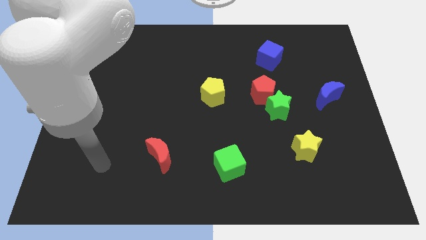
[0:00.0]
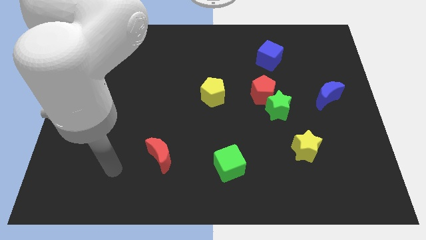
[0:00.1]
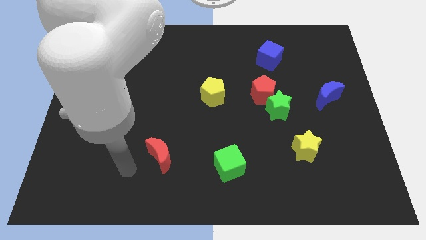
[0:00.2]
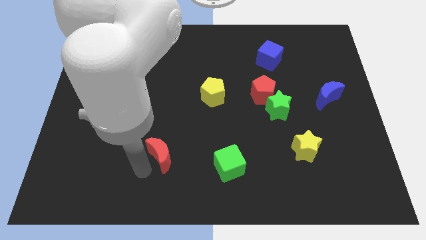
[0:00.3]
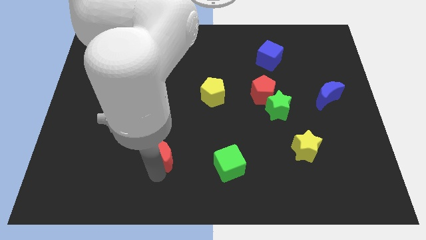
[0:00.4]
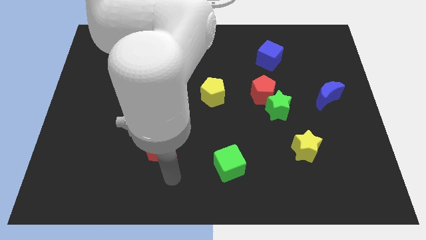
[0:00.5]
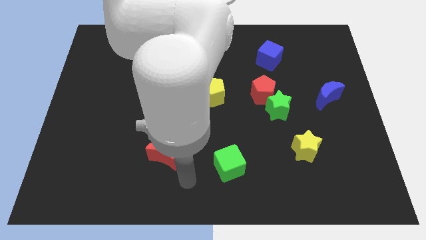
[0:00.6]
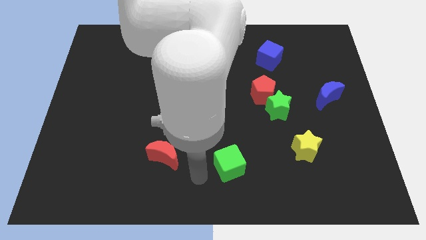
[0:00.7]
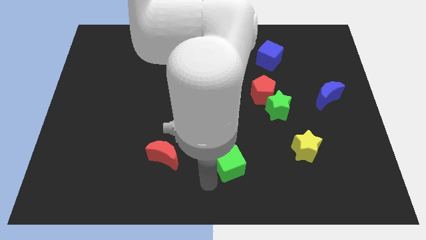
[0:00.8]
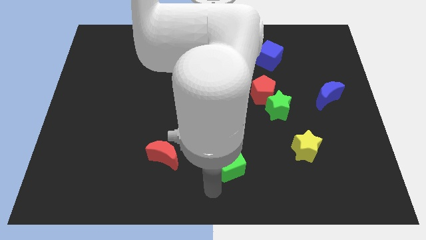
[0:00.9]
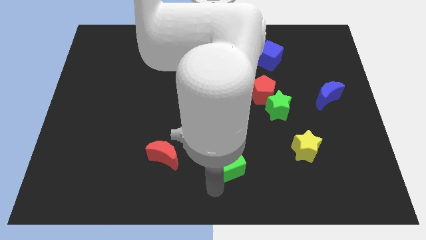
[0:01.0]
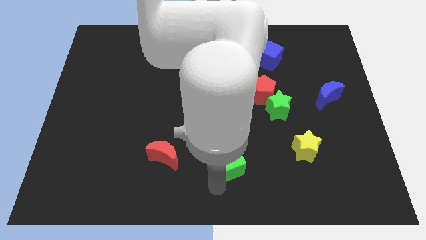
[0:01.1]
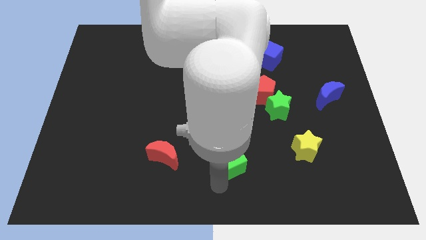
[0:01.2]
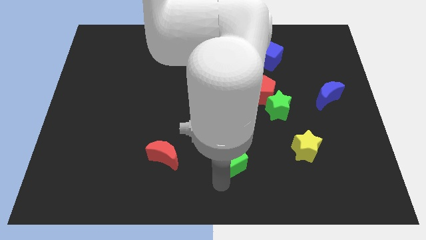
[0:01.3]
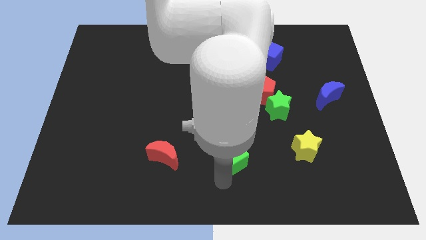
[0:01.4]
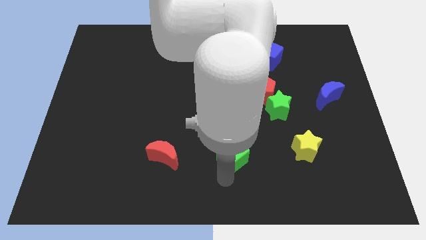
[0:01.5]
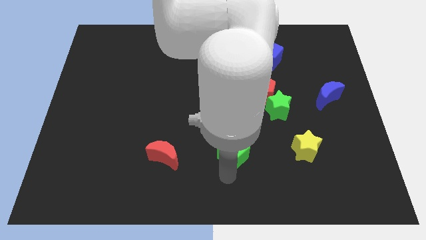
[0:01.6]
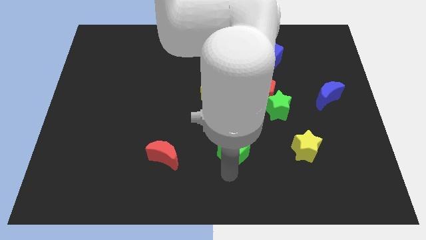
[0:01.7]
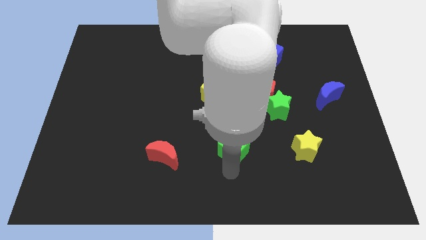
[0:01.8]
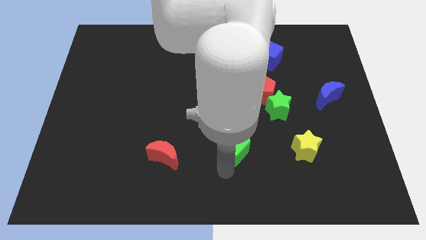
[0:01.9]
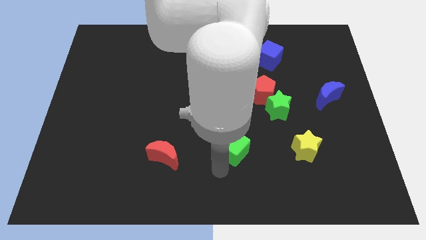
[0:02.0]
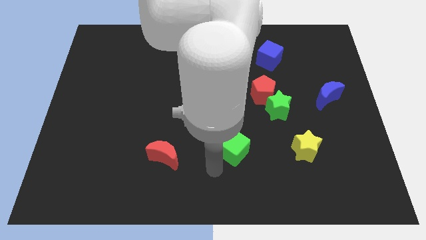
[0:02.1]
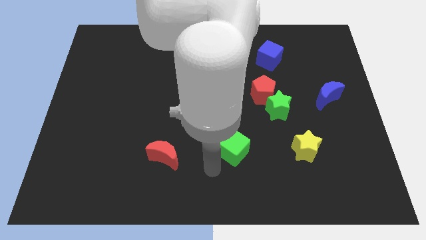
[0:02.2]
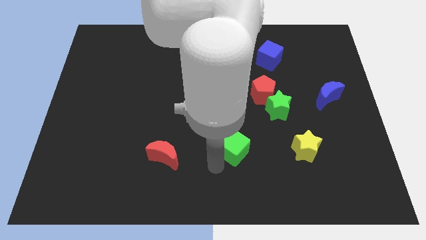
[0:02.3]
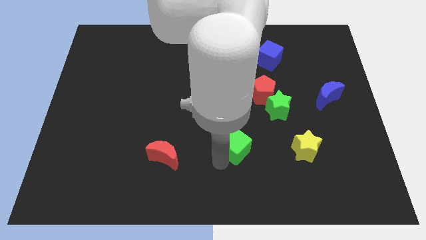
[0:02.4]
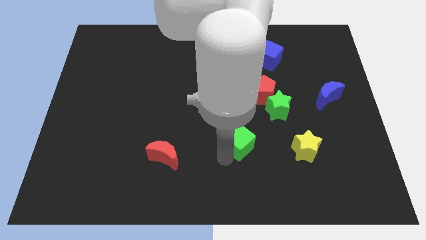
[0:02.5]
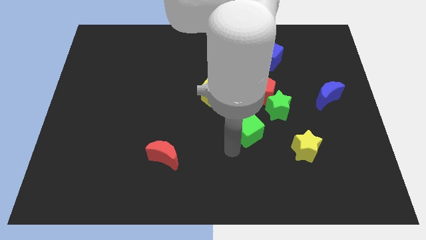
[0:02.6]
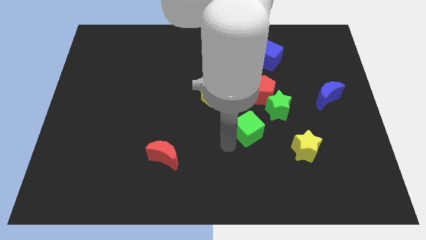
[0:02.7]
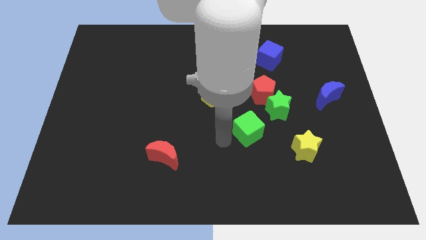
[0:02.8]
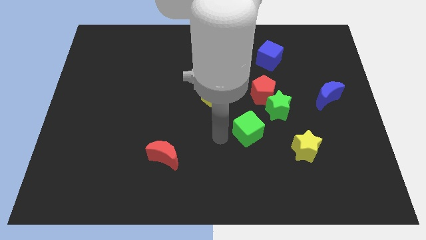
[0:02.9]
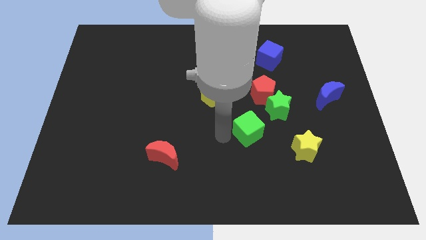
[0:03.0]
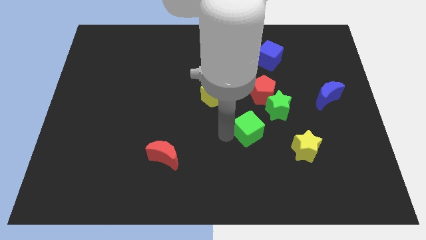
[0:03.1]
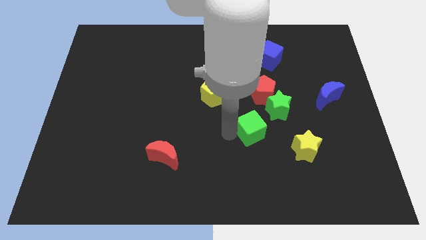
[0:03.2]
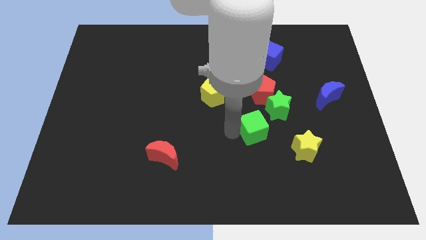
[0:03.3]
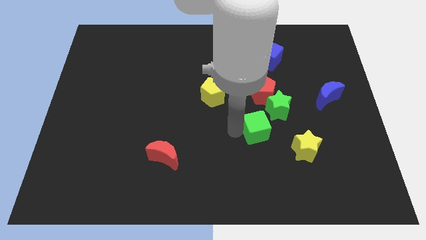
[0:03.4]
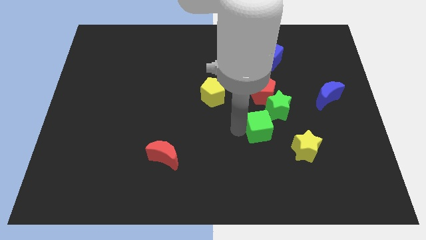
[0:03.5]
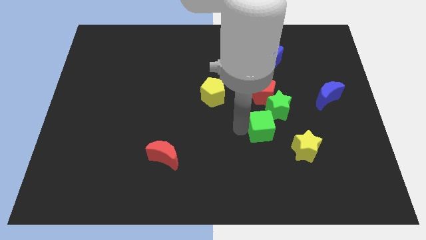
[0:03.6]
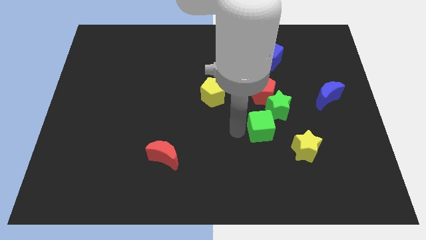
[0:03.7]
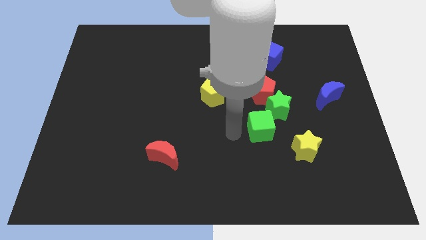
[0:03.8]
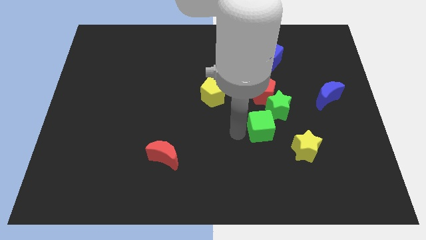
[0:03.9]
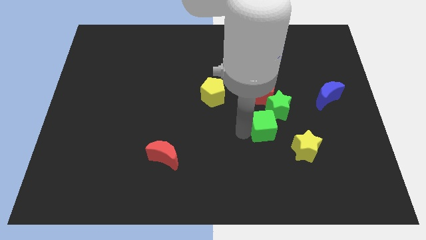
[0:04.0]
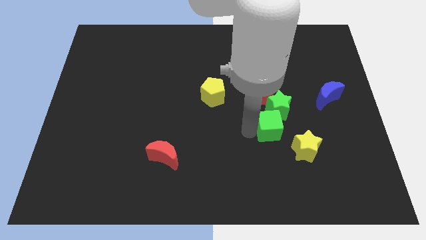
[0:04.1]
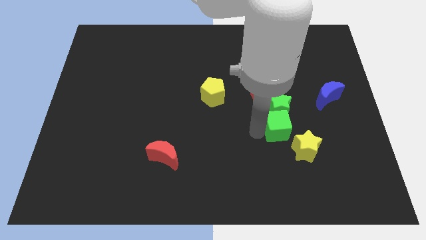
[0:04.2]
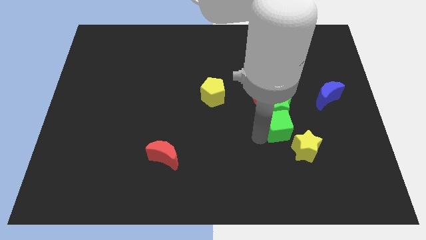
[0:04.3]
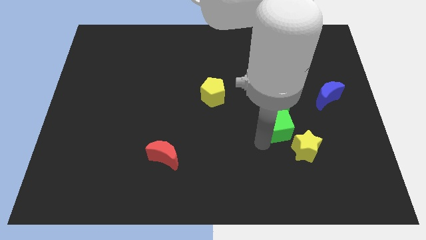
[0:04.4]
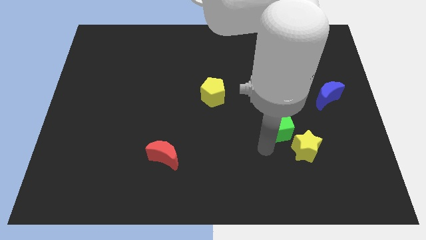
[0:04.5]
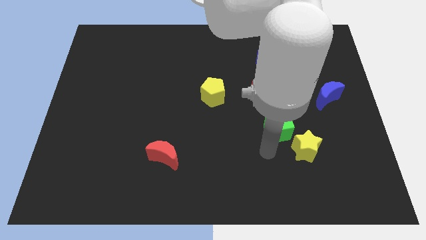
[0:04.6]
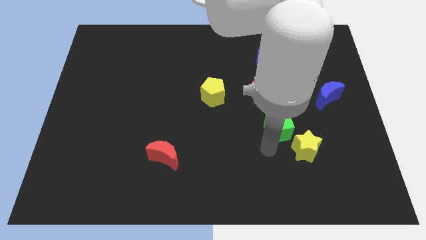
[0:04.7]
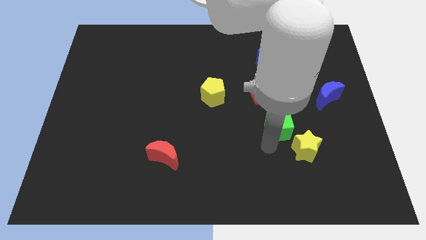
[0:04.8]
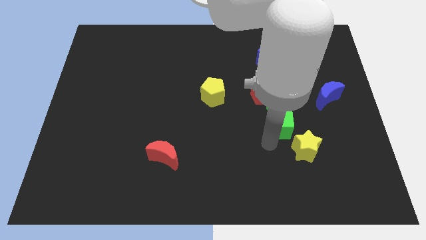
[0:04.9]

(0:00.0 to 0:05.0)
move the green cube diagonally down and to the right of the red pentagon

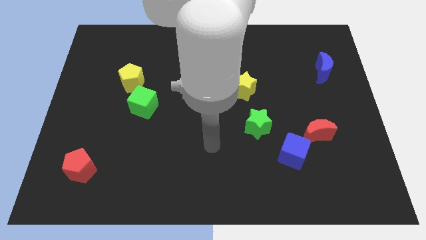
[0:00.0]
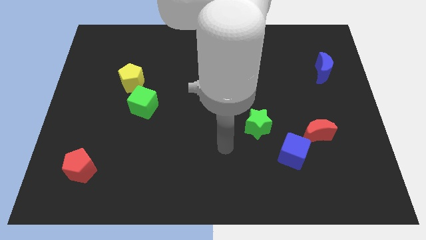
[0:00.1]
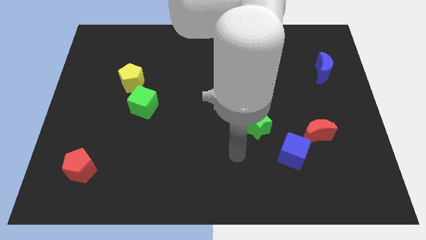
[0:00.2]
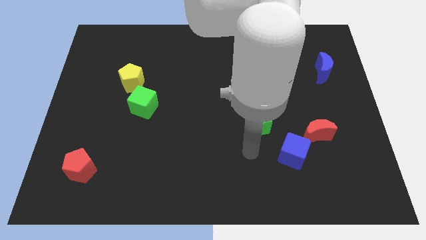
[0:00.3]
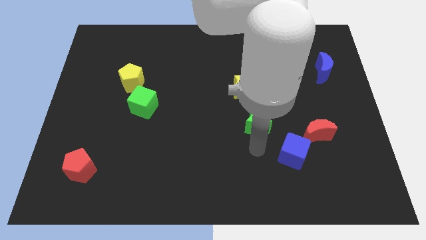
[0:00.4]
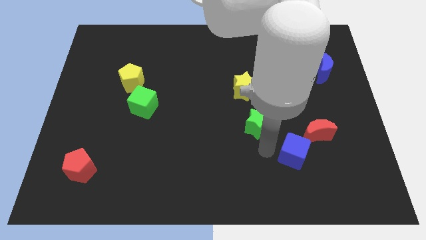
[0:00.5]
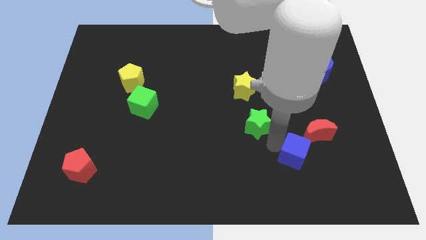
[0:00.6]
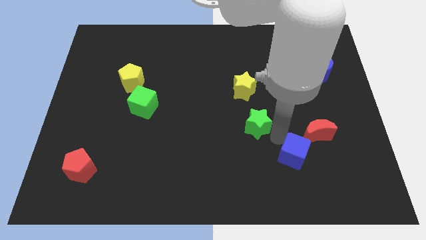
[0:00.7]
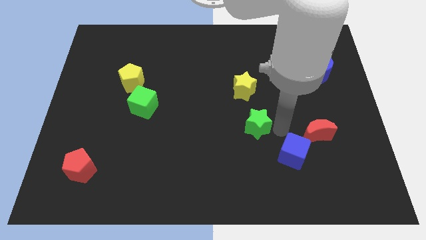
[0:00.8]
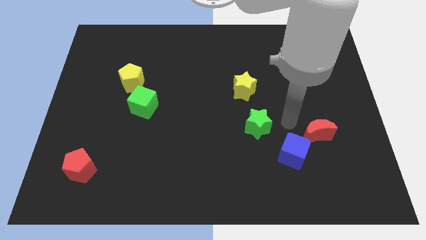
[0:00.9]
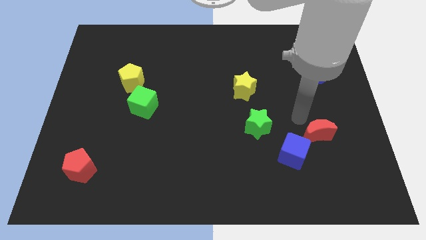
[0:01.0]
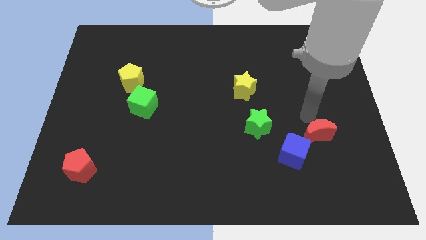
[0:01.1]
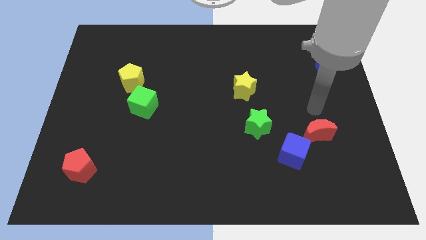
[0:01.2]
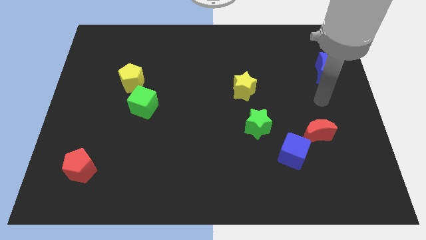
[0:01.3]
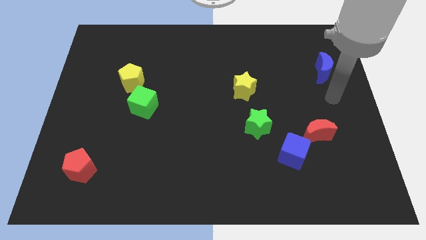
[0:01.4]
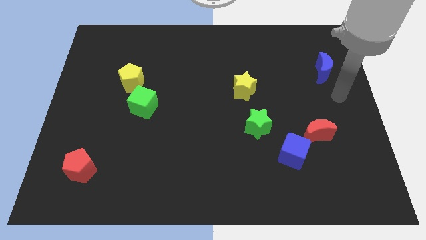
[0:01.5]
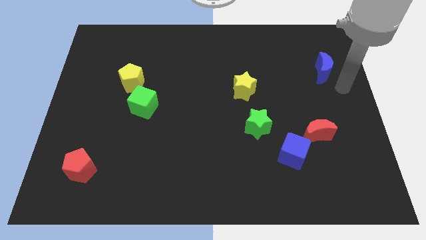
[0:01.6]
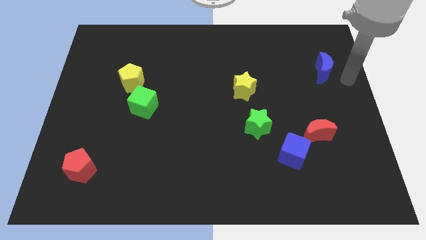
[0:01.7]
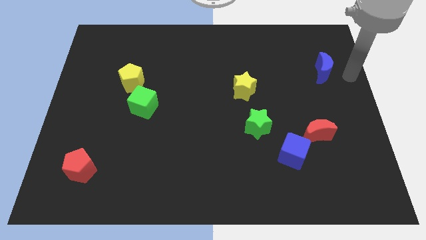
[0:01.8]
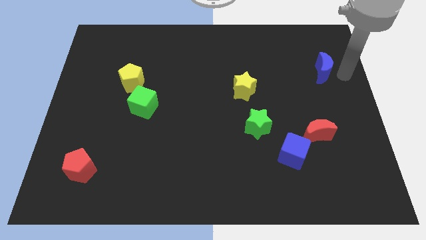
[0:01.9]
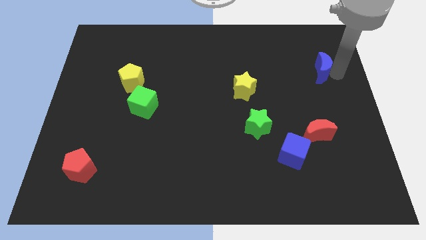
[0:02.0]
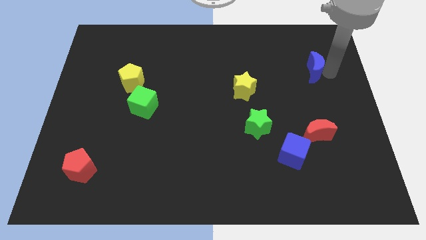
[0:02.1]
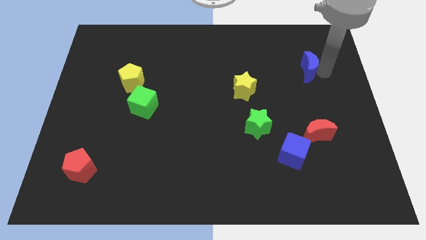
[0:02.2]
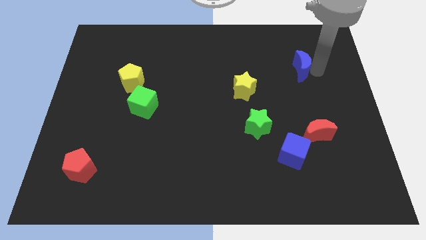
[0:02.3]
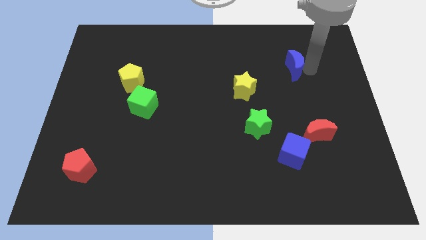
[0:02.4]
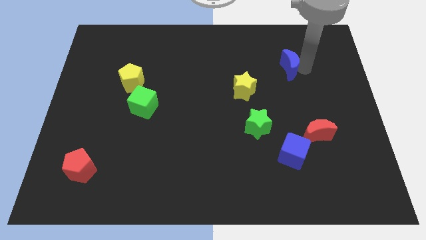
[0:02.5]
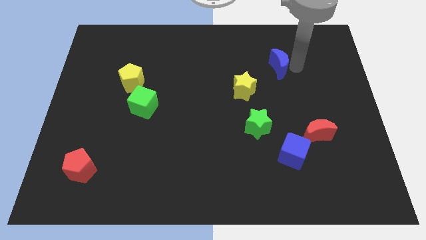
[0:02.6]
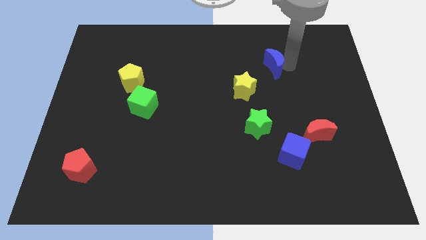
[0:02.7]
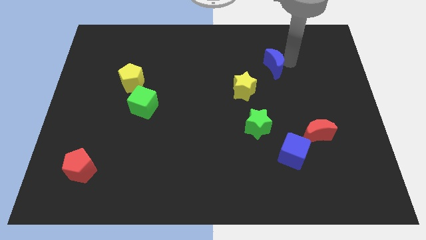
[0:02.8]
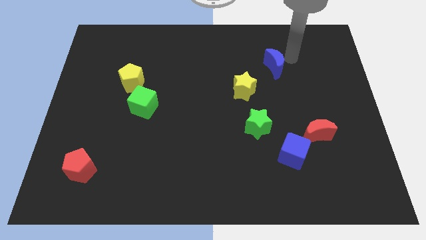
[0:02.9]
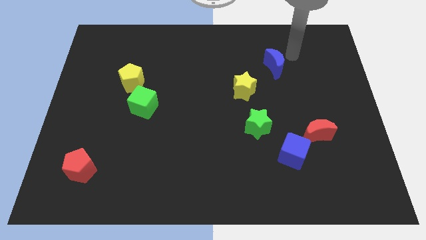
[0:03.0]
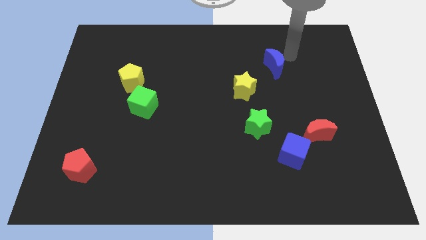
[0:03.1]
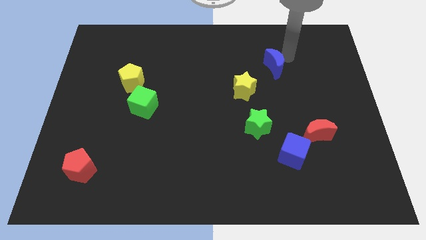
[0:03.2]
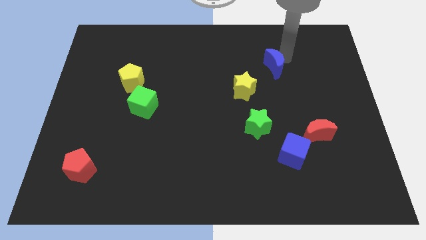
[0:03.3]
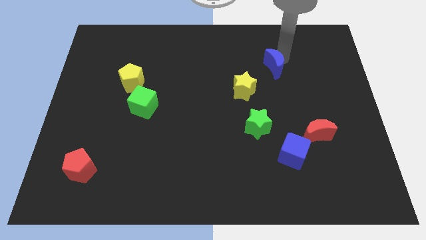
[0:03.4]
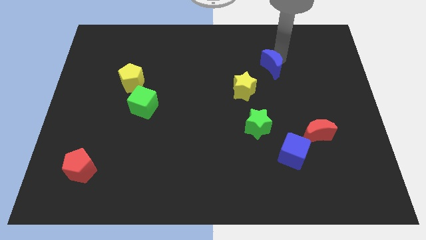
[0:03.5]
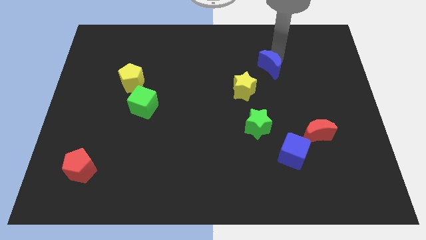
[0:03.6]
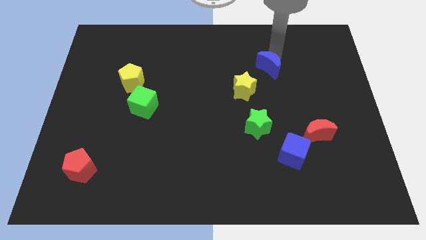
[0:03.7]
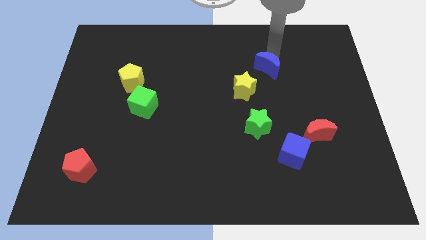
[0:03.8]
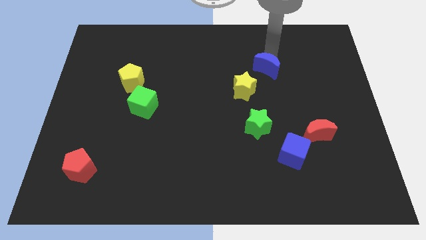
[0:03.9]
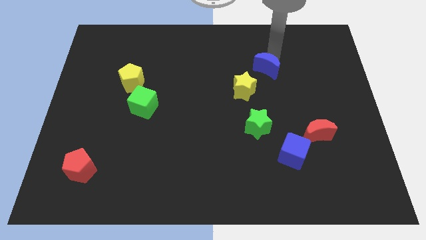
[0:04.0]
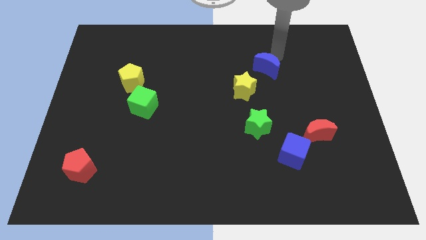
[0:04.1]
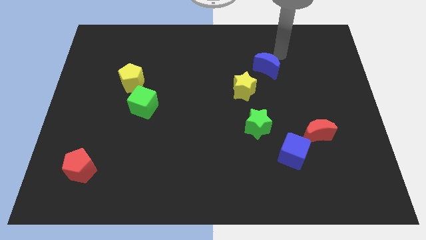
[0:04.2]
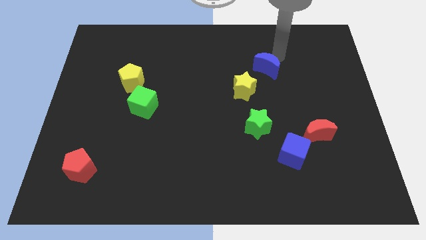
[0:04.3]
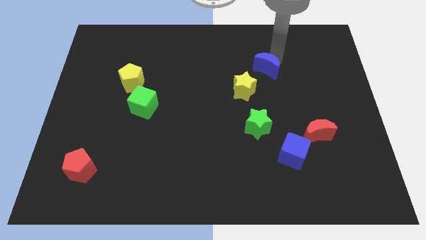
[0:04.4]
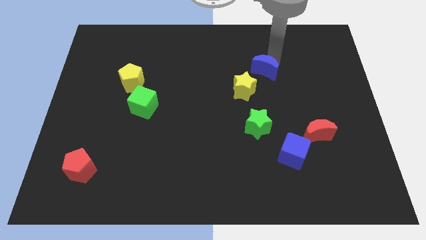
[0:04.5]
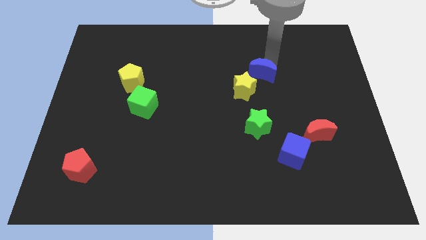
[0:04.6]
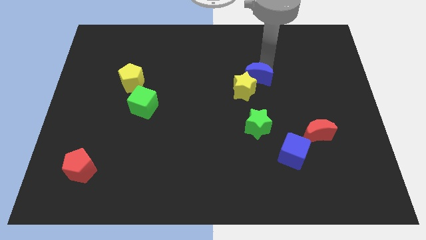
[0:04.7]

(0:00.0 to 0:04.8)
push the blue moon to the top of the green star
